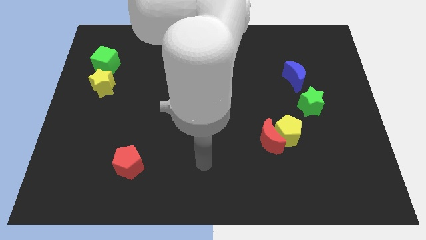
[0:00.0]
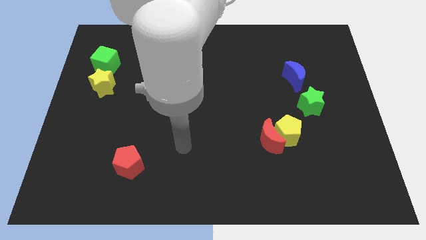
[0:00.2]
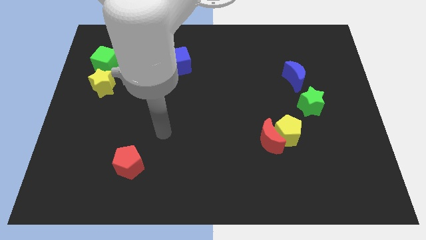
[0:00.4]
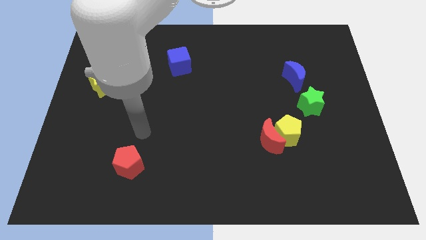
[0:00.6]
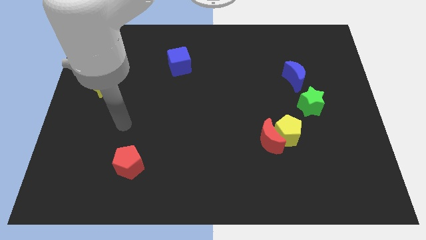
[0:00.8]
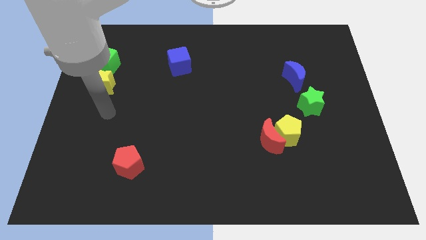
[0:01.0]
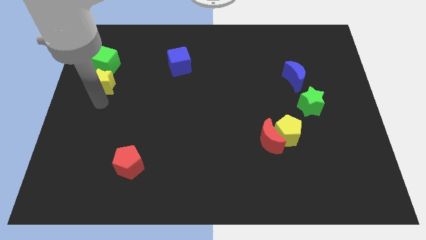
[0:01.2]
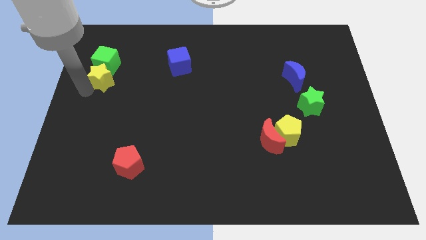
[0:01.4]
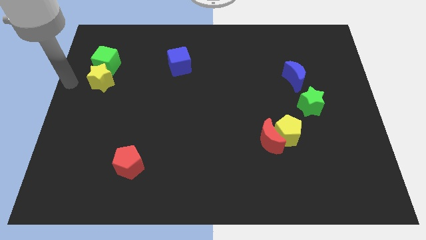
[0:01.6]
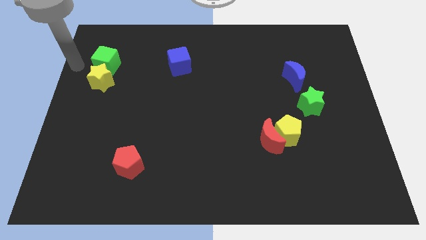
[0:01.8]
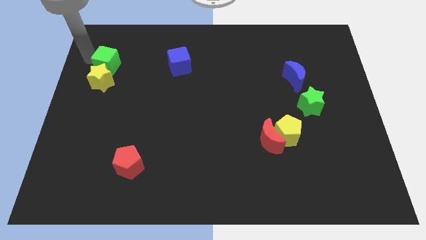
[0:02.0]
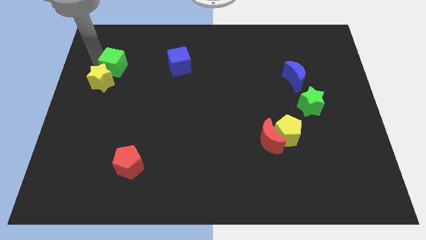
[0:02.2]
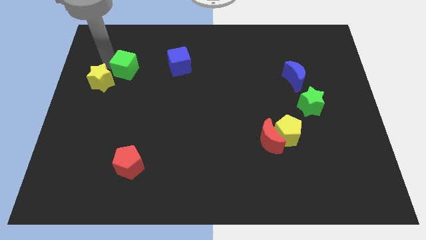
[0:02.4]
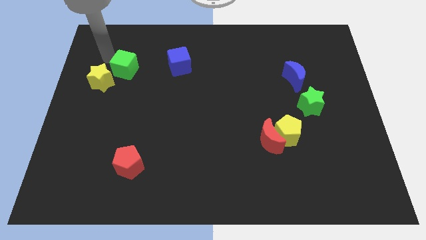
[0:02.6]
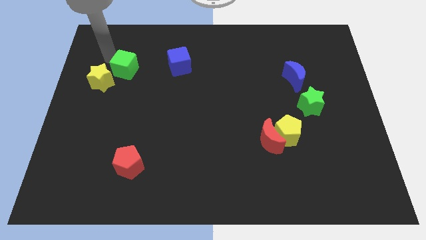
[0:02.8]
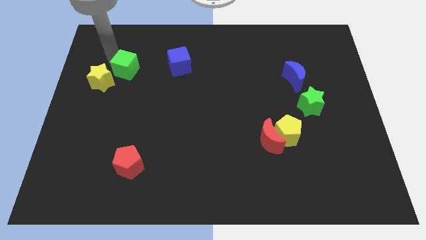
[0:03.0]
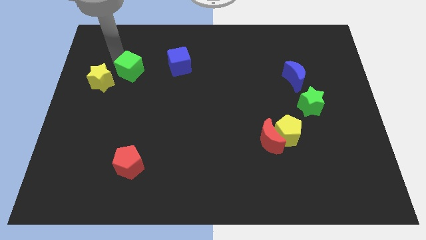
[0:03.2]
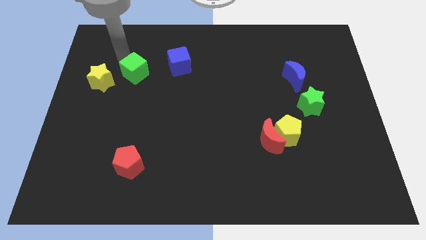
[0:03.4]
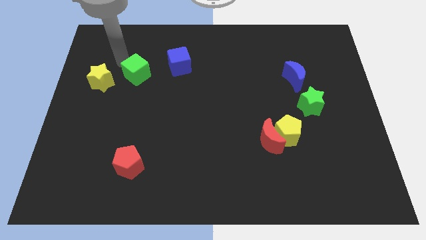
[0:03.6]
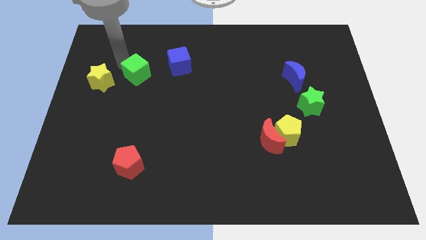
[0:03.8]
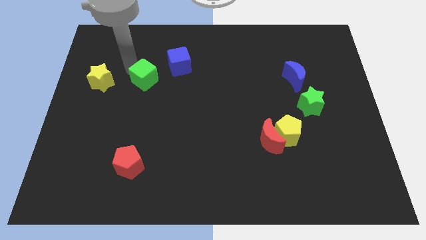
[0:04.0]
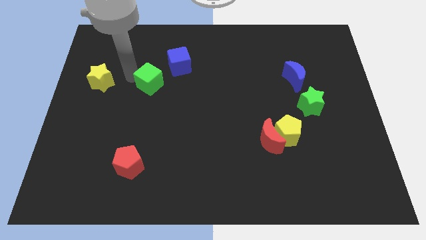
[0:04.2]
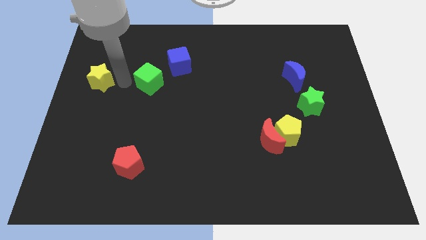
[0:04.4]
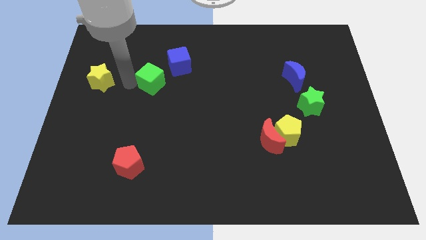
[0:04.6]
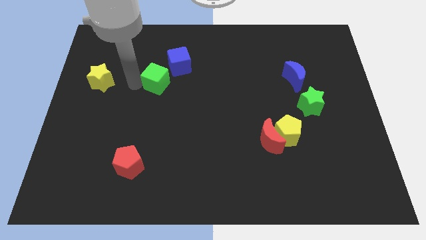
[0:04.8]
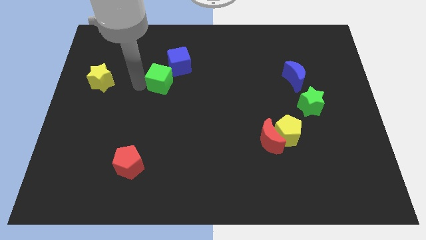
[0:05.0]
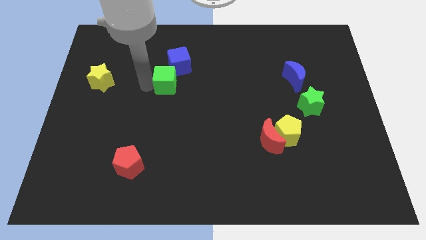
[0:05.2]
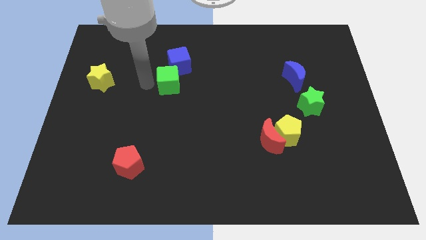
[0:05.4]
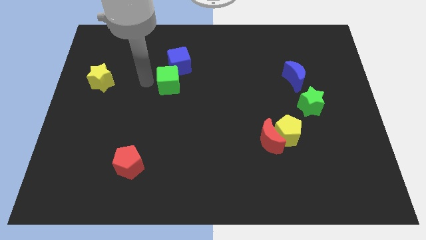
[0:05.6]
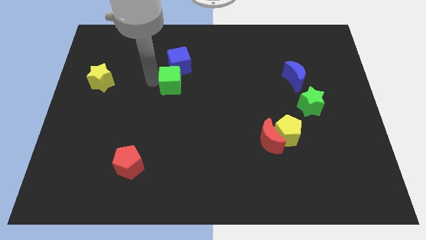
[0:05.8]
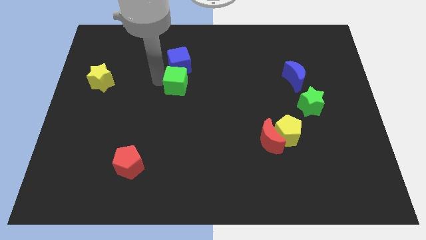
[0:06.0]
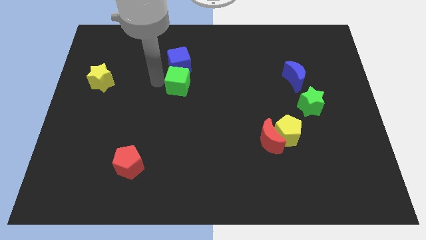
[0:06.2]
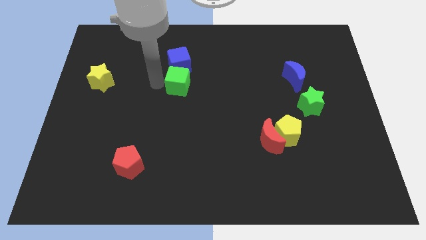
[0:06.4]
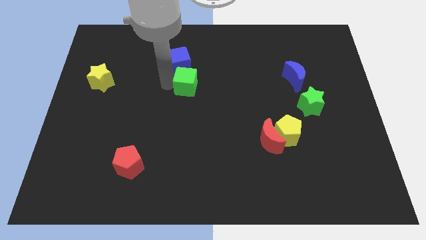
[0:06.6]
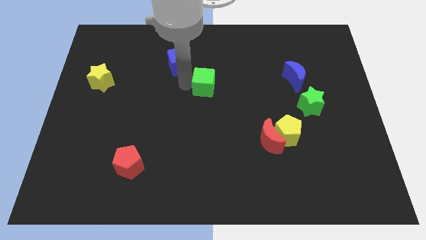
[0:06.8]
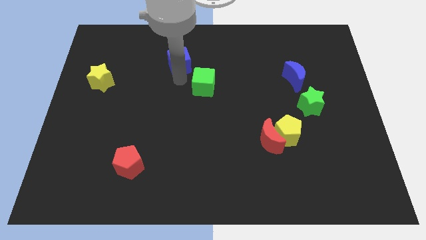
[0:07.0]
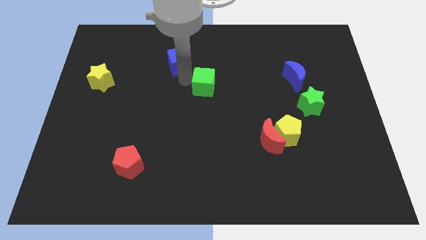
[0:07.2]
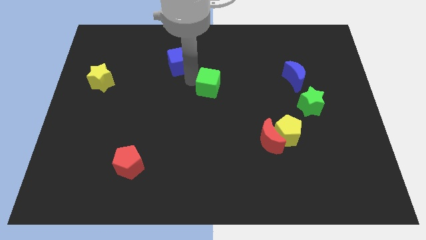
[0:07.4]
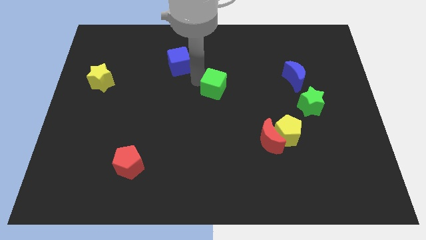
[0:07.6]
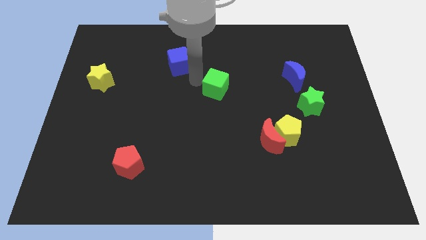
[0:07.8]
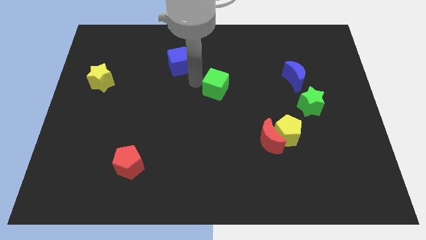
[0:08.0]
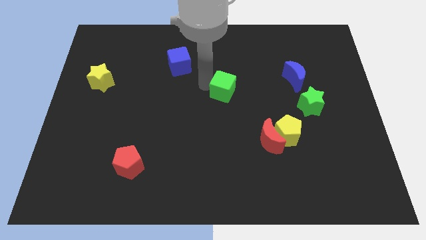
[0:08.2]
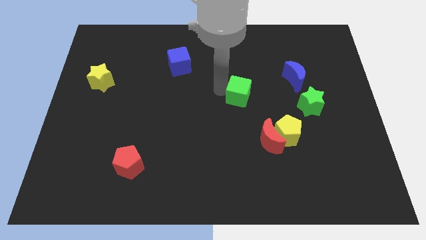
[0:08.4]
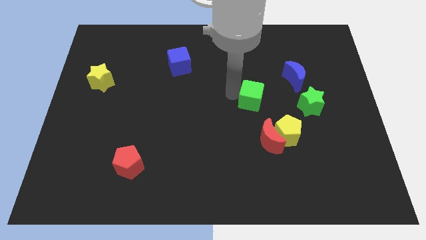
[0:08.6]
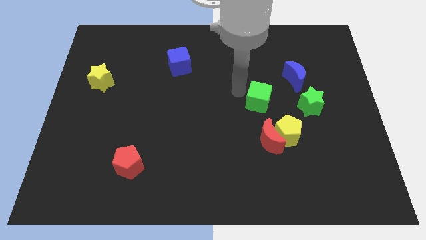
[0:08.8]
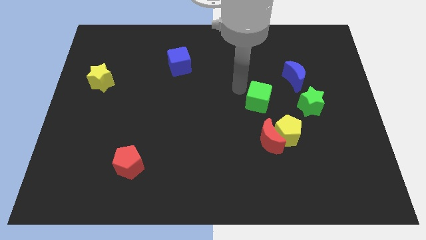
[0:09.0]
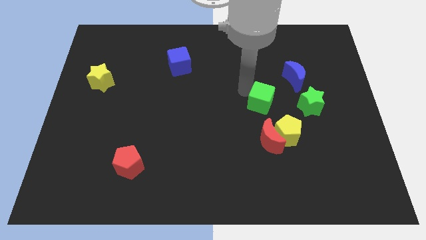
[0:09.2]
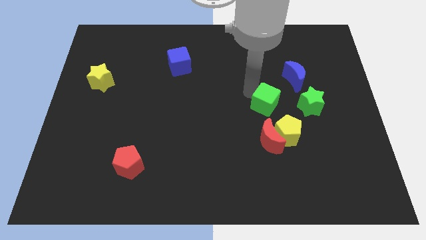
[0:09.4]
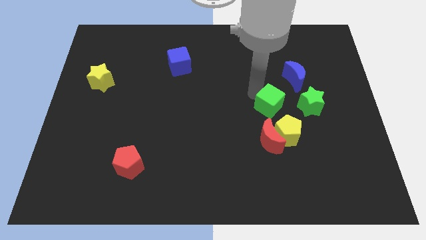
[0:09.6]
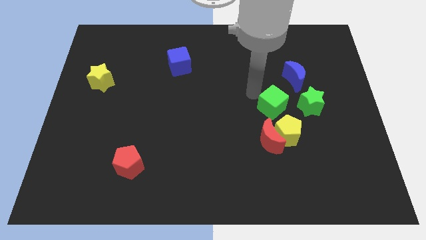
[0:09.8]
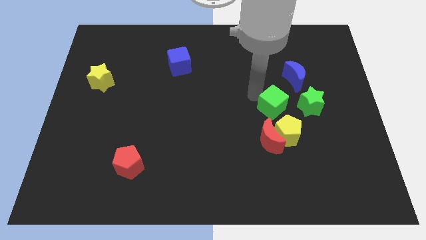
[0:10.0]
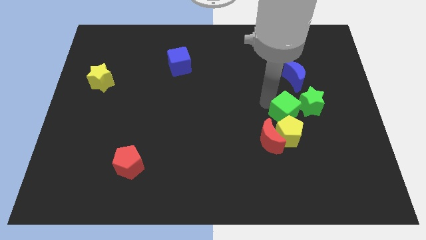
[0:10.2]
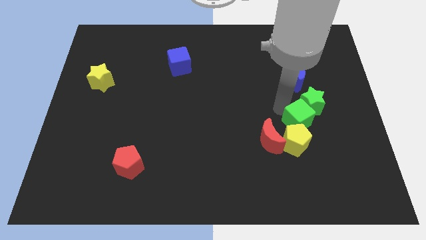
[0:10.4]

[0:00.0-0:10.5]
put the green cube to the bottom side of the green star

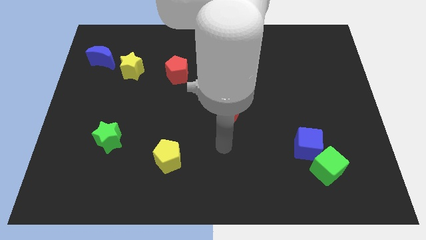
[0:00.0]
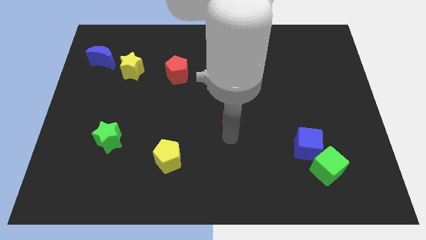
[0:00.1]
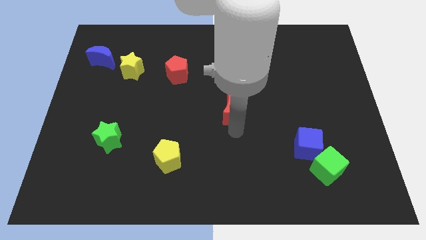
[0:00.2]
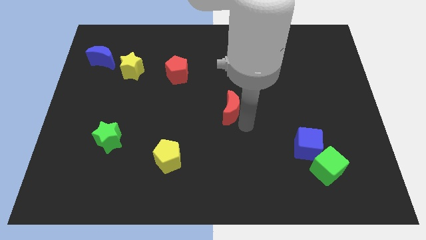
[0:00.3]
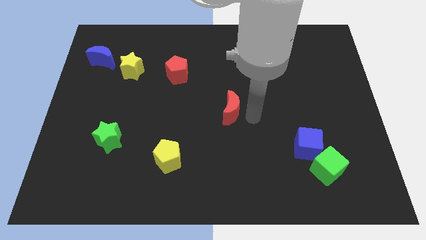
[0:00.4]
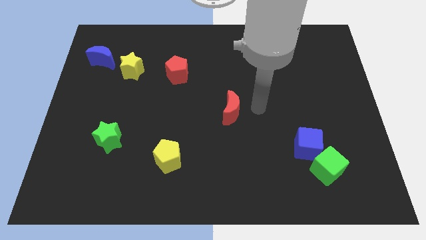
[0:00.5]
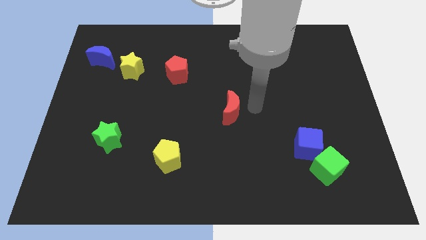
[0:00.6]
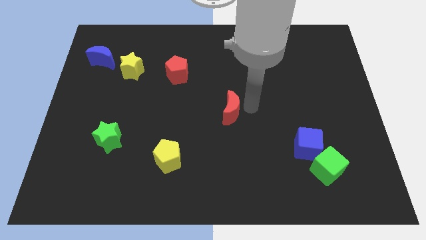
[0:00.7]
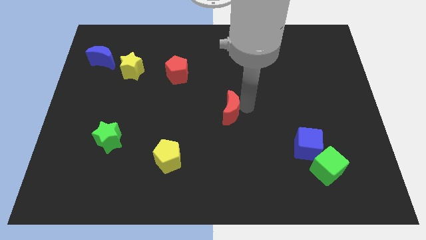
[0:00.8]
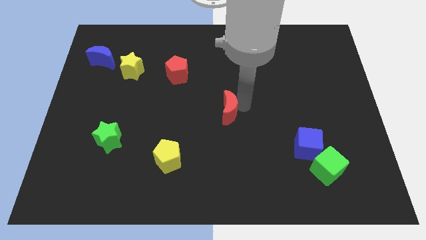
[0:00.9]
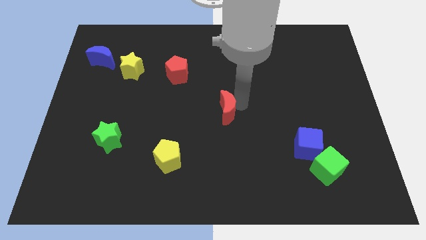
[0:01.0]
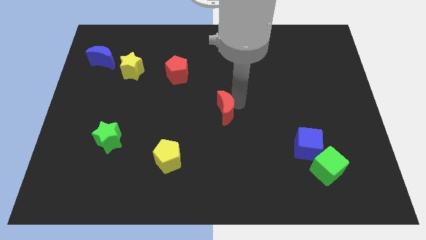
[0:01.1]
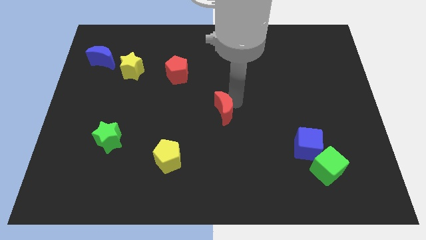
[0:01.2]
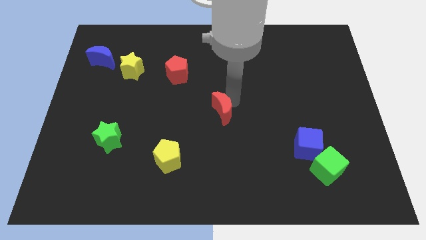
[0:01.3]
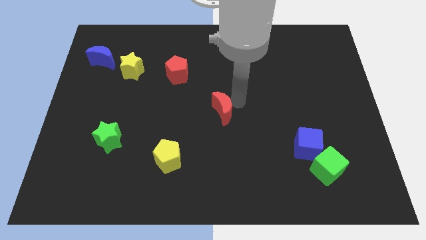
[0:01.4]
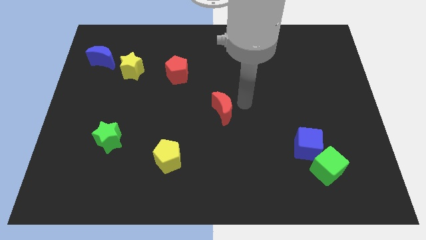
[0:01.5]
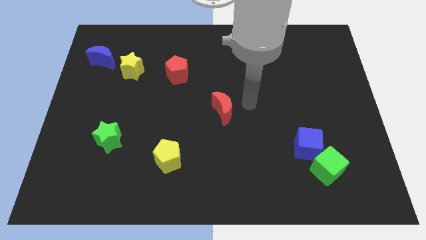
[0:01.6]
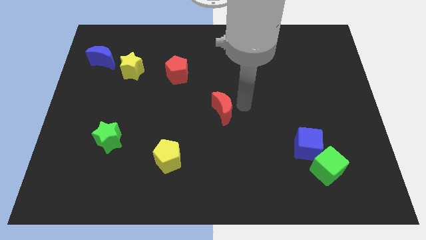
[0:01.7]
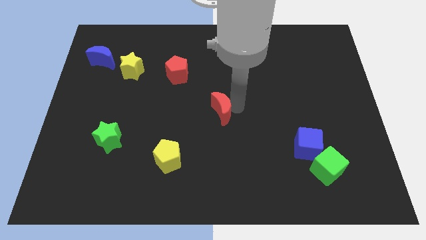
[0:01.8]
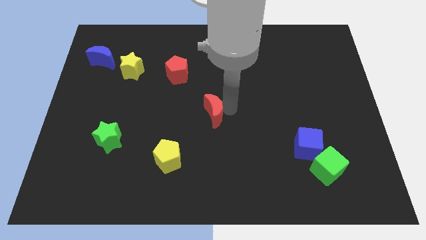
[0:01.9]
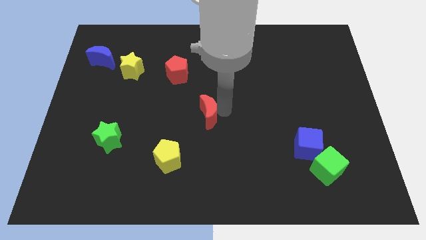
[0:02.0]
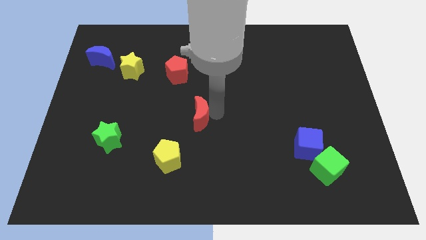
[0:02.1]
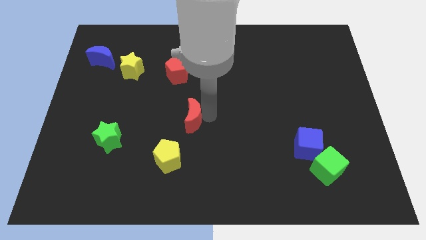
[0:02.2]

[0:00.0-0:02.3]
put the red moon to the top of the yellow pentagon
